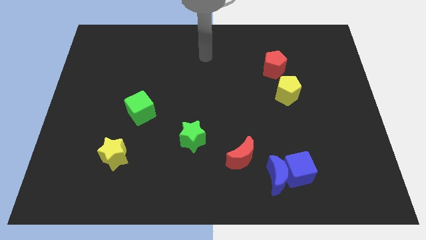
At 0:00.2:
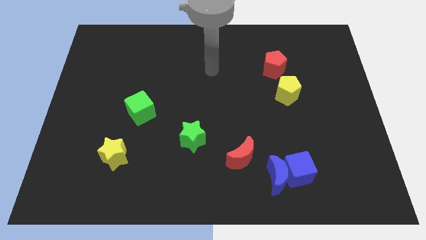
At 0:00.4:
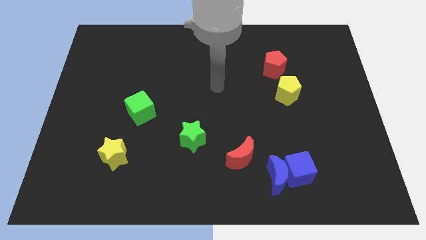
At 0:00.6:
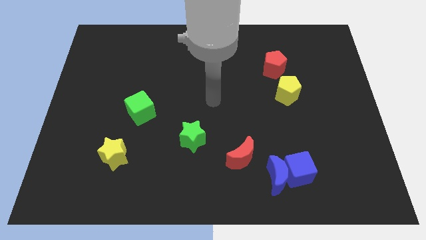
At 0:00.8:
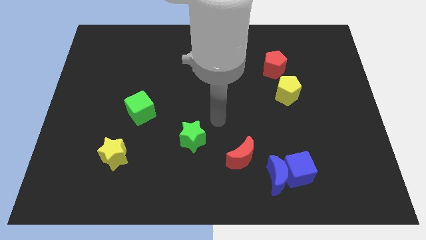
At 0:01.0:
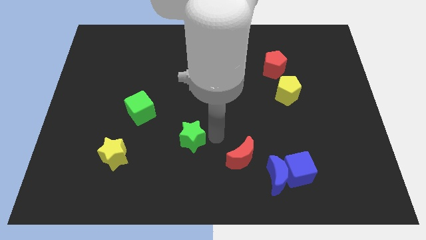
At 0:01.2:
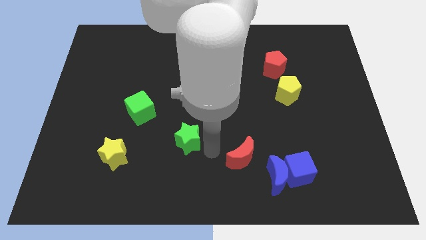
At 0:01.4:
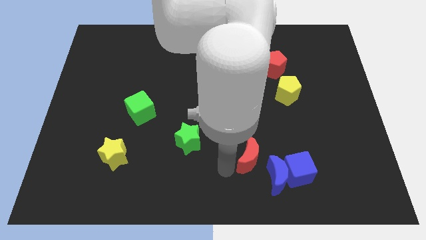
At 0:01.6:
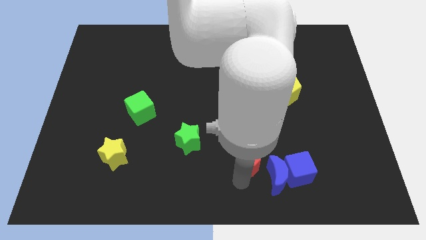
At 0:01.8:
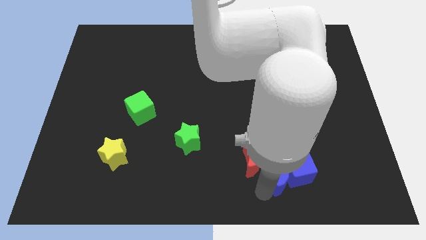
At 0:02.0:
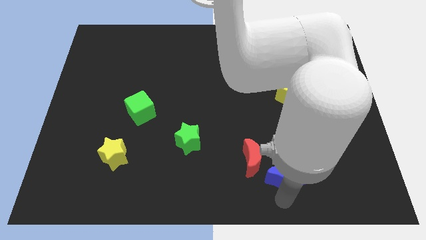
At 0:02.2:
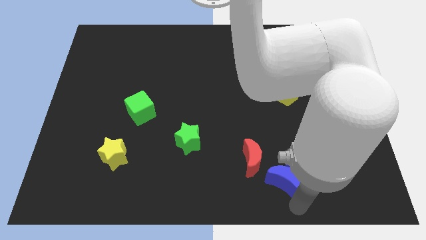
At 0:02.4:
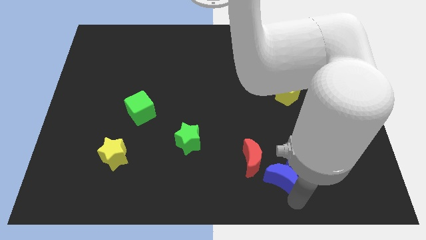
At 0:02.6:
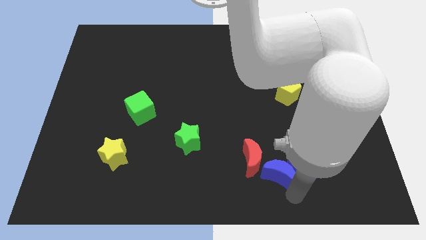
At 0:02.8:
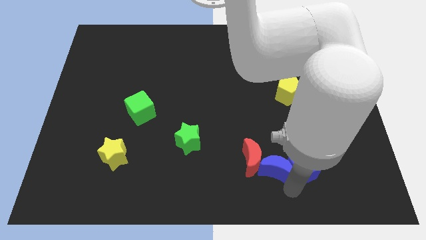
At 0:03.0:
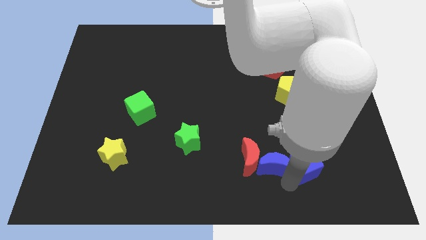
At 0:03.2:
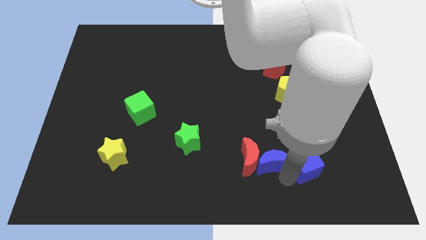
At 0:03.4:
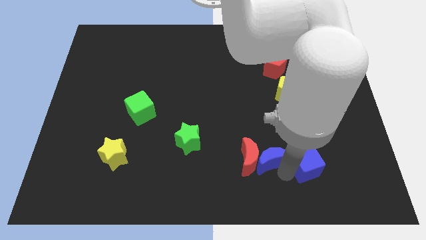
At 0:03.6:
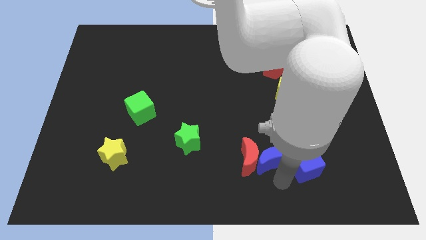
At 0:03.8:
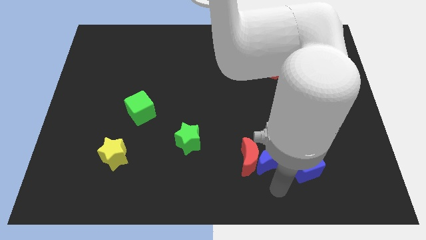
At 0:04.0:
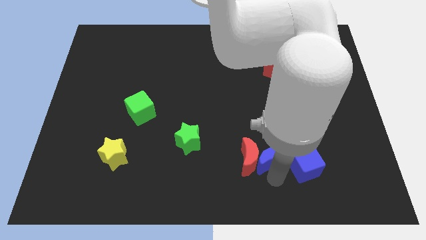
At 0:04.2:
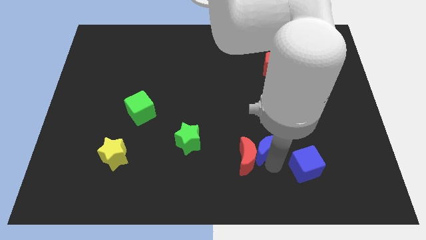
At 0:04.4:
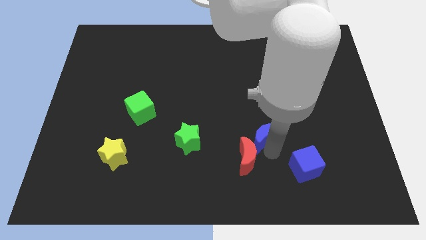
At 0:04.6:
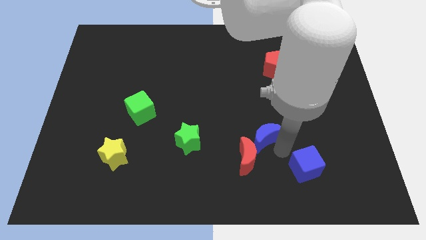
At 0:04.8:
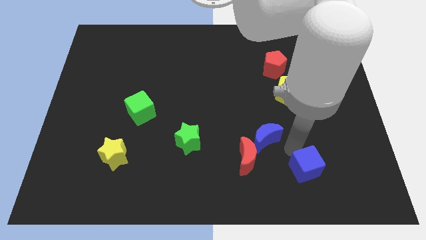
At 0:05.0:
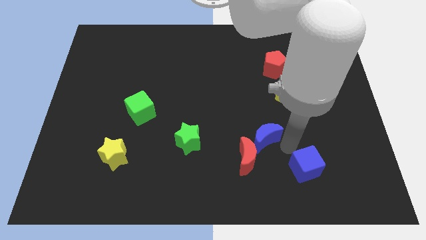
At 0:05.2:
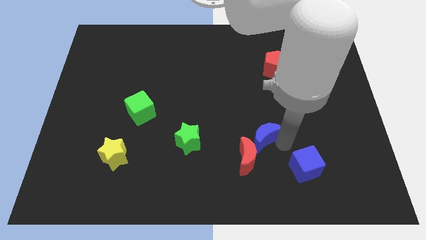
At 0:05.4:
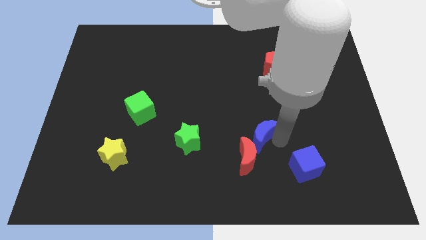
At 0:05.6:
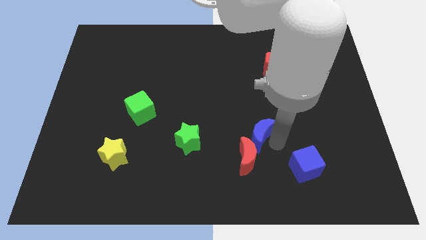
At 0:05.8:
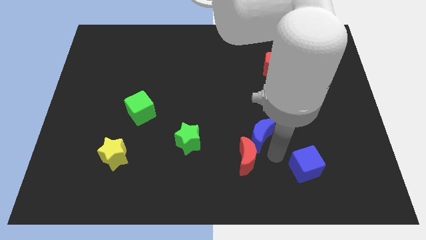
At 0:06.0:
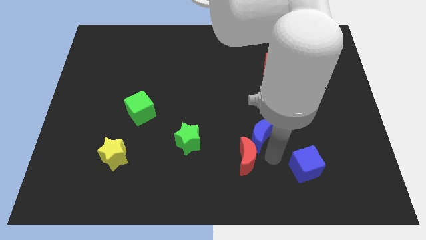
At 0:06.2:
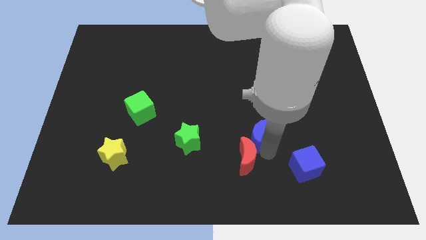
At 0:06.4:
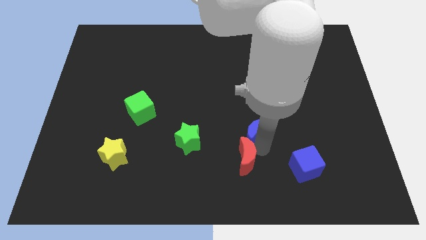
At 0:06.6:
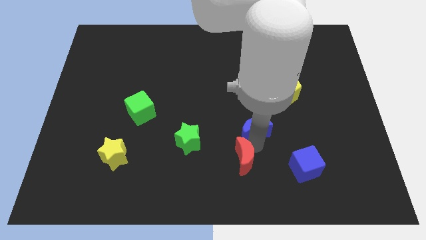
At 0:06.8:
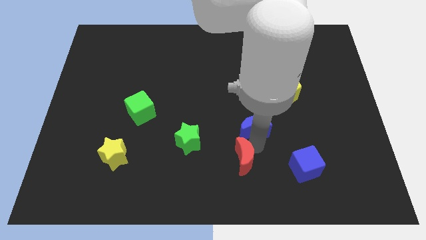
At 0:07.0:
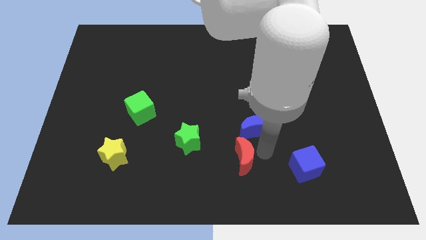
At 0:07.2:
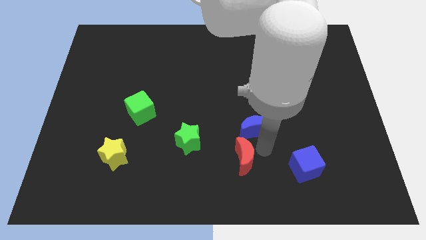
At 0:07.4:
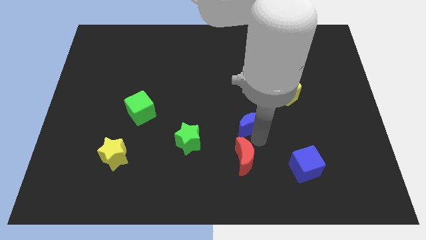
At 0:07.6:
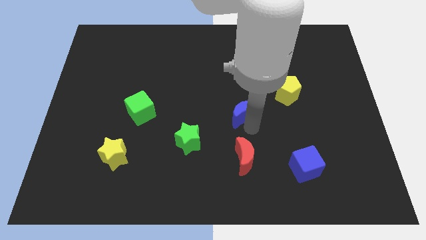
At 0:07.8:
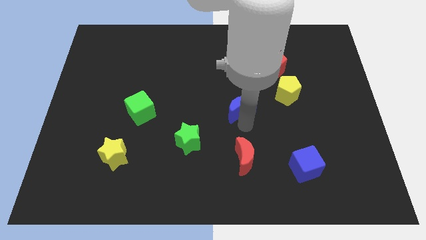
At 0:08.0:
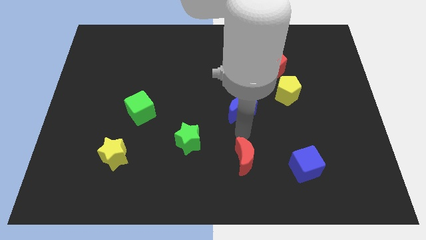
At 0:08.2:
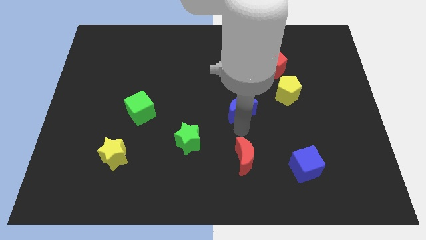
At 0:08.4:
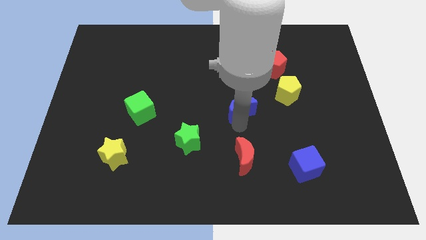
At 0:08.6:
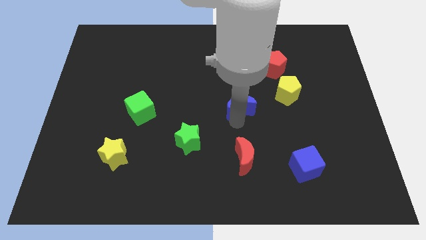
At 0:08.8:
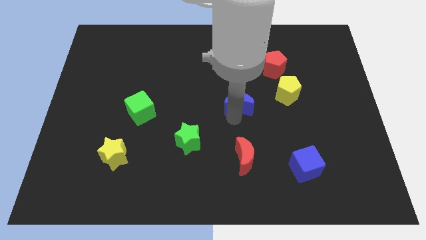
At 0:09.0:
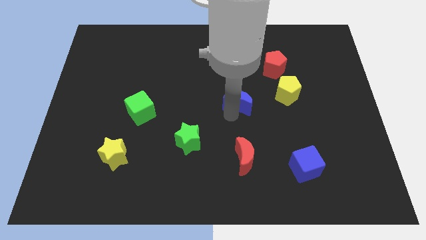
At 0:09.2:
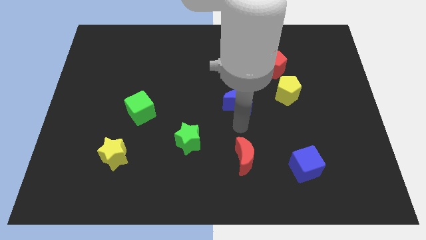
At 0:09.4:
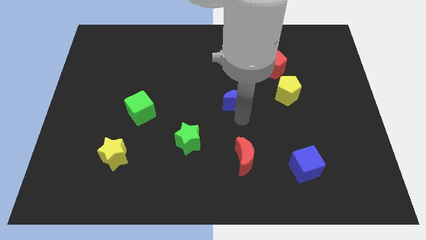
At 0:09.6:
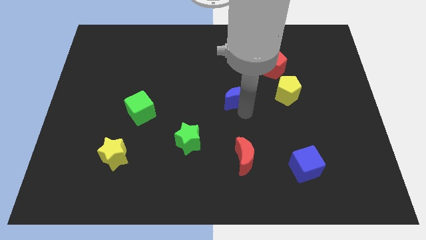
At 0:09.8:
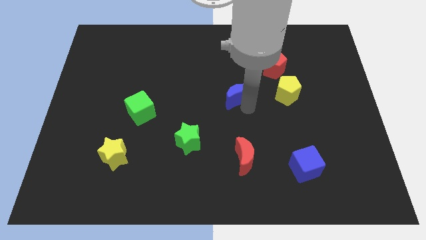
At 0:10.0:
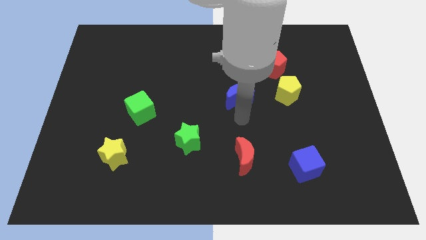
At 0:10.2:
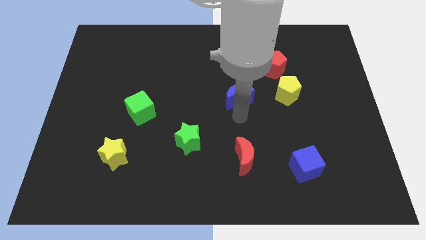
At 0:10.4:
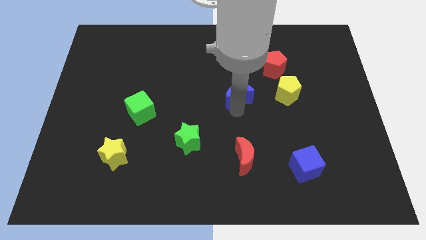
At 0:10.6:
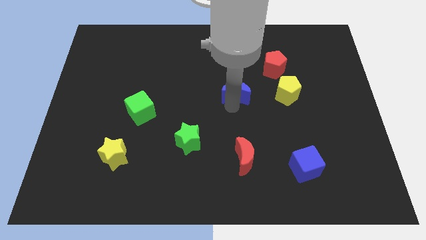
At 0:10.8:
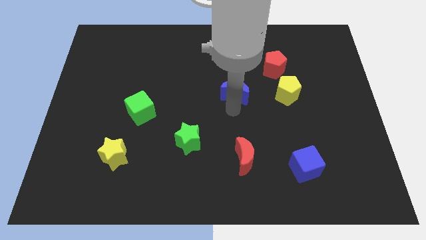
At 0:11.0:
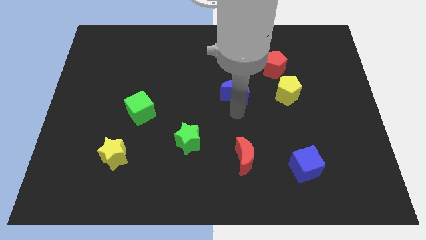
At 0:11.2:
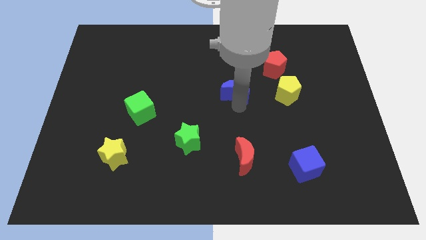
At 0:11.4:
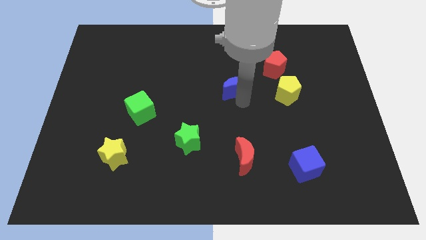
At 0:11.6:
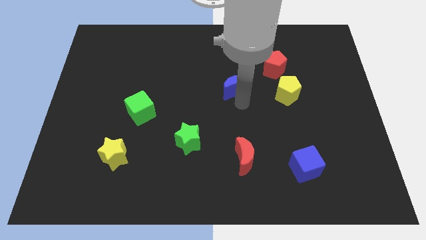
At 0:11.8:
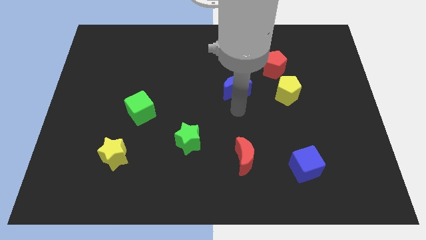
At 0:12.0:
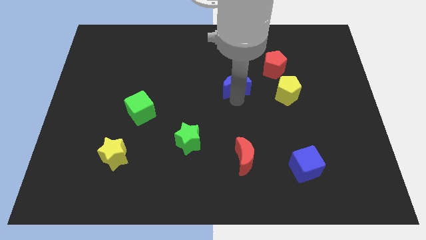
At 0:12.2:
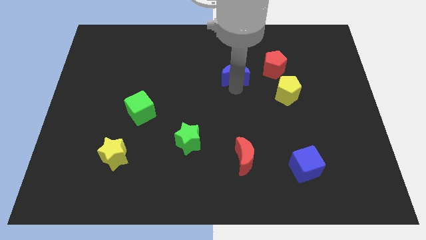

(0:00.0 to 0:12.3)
put the blue moon to the left of the red pentagon

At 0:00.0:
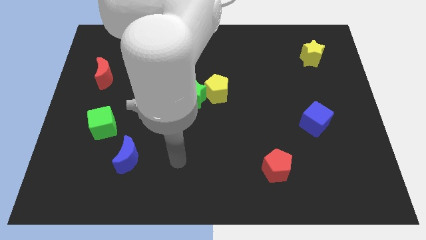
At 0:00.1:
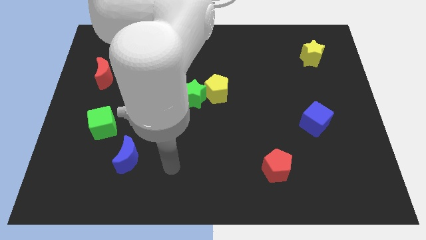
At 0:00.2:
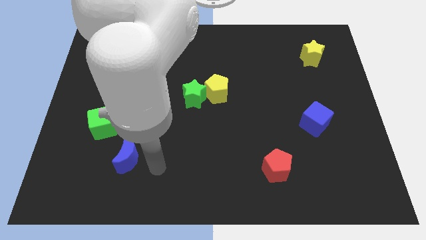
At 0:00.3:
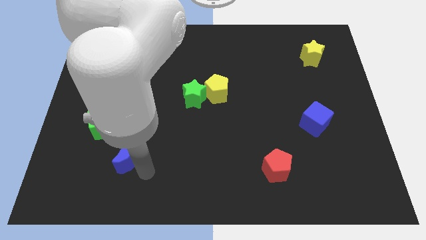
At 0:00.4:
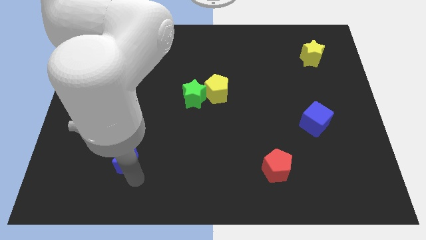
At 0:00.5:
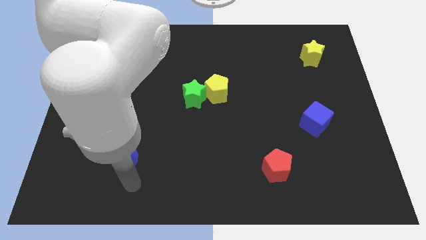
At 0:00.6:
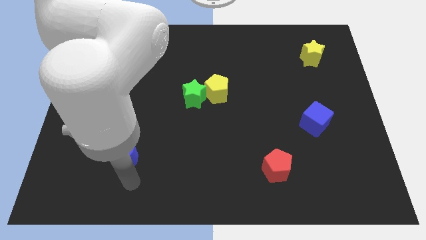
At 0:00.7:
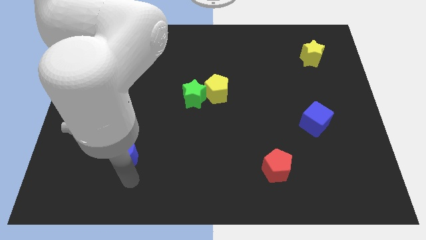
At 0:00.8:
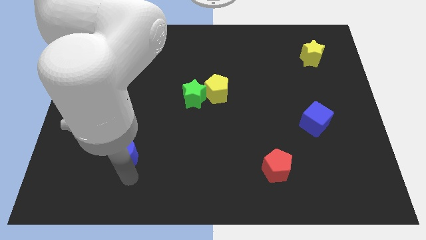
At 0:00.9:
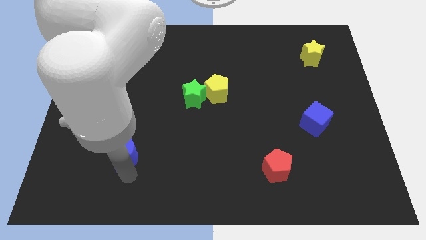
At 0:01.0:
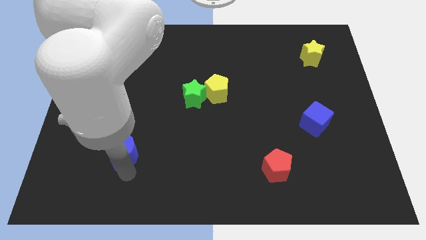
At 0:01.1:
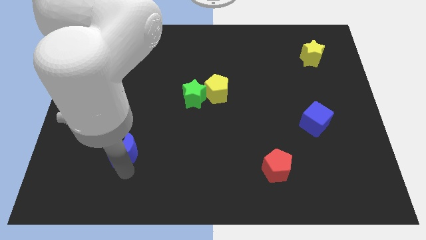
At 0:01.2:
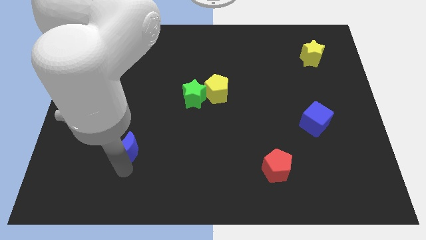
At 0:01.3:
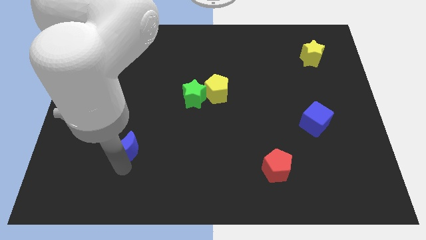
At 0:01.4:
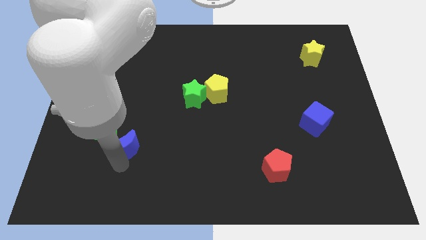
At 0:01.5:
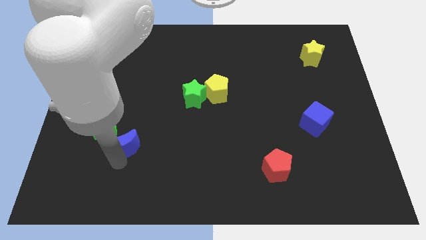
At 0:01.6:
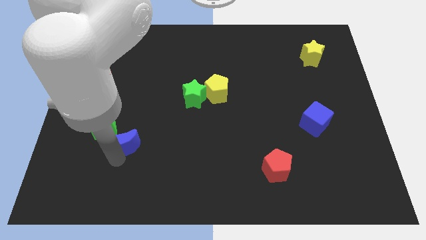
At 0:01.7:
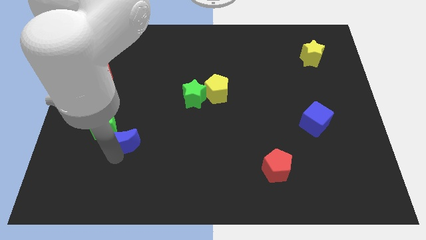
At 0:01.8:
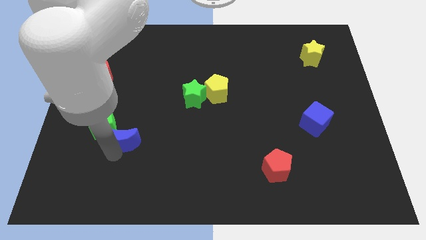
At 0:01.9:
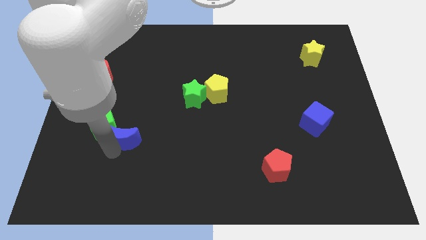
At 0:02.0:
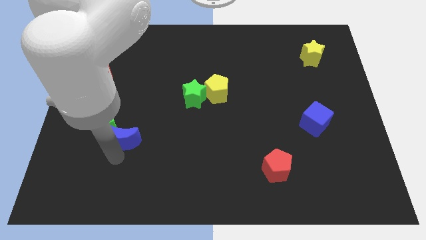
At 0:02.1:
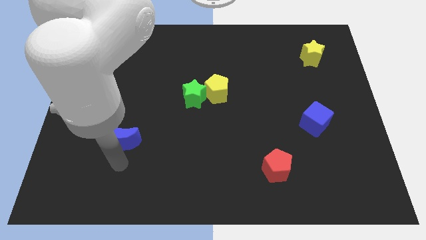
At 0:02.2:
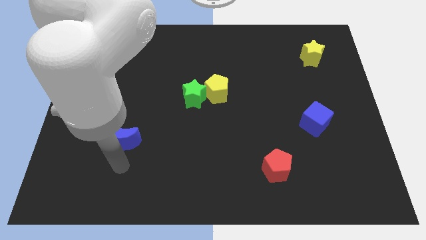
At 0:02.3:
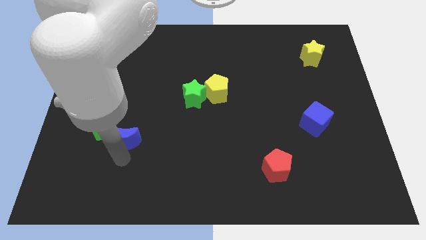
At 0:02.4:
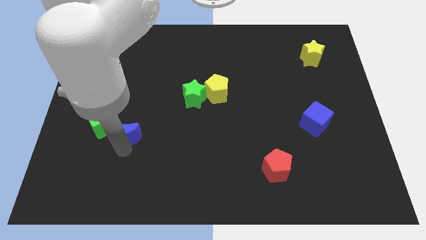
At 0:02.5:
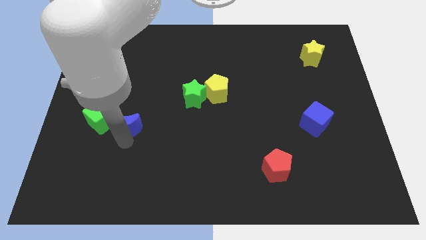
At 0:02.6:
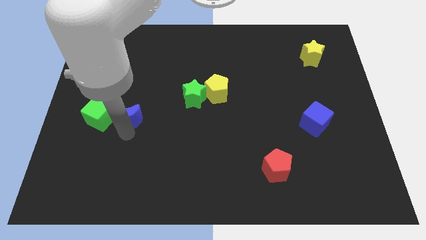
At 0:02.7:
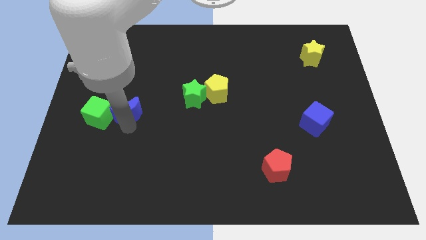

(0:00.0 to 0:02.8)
slide the blue moon to the top right side of the green cube
